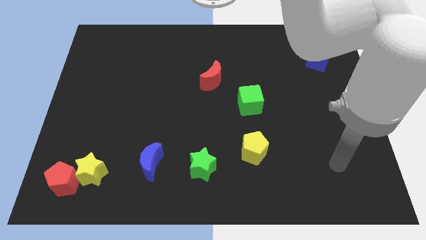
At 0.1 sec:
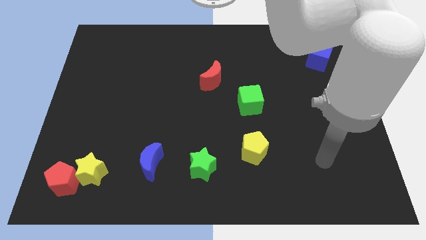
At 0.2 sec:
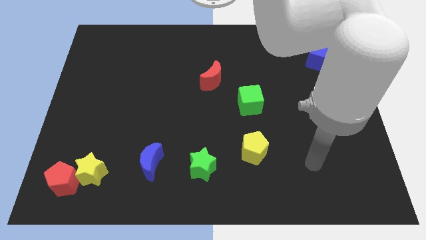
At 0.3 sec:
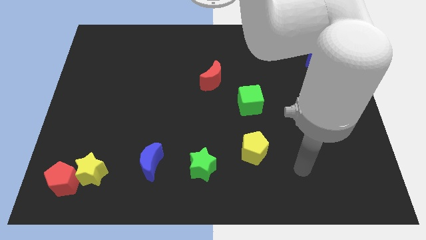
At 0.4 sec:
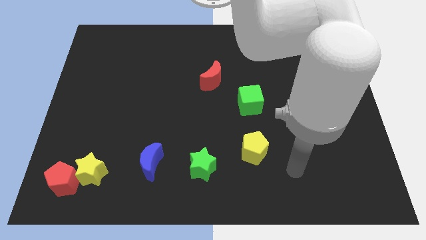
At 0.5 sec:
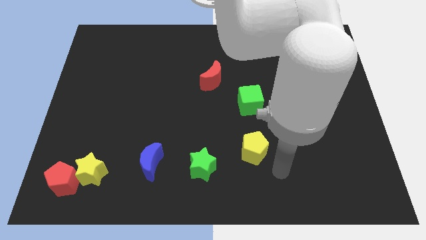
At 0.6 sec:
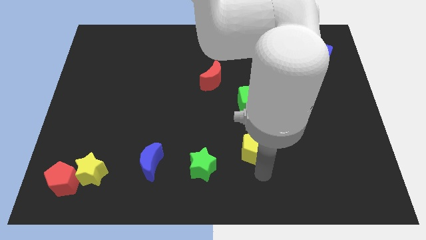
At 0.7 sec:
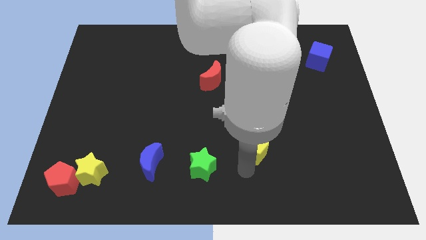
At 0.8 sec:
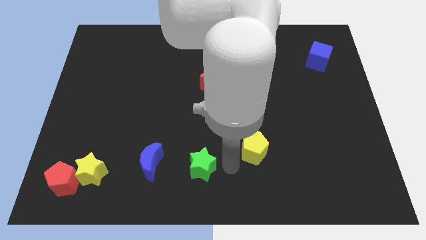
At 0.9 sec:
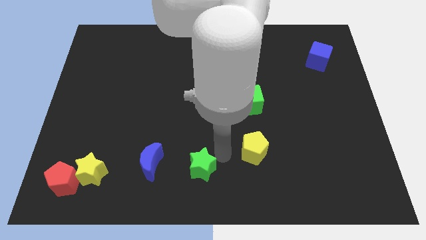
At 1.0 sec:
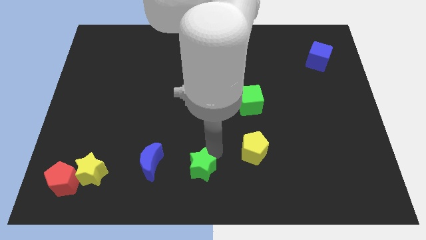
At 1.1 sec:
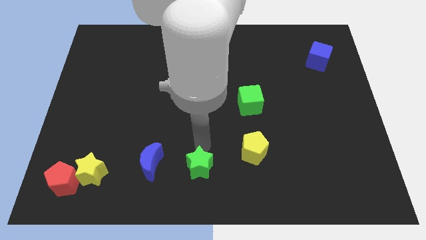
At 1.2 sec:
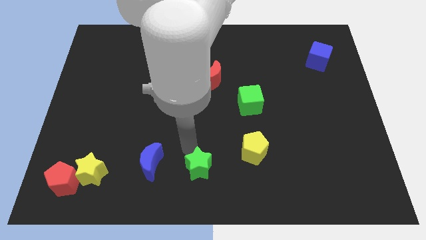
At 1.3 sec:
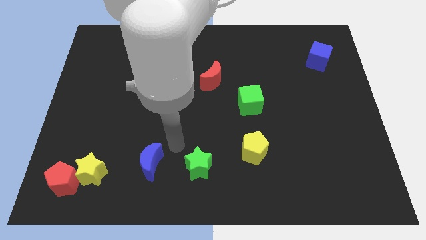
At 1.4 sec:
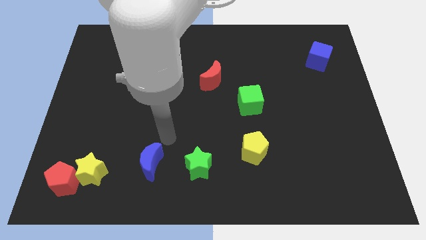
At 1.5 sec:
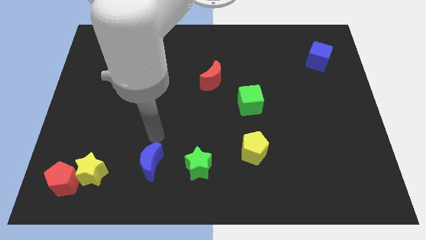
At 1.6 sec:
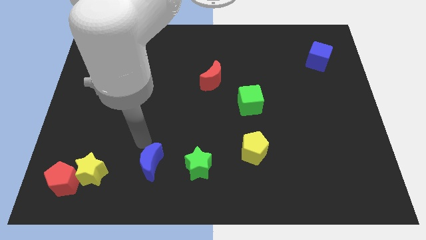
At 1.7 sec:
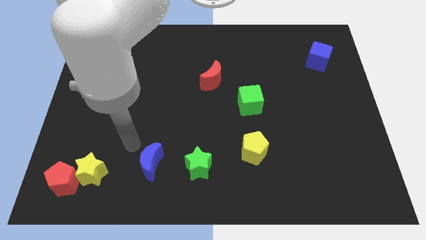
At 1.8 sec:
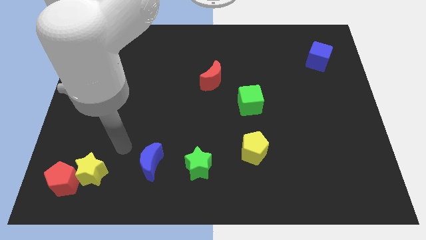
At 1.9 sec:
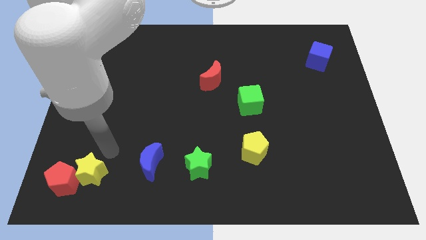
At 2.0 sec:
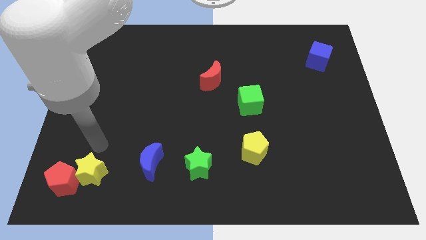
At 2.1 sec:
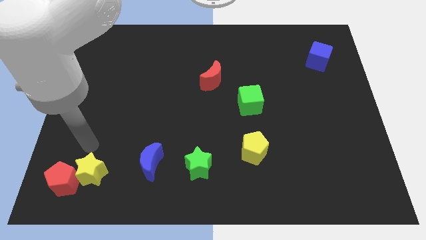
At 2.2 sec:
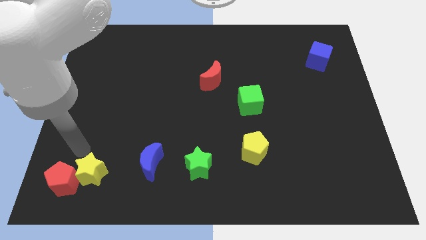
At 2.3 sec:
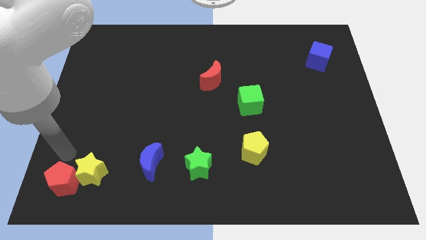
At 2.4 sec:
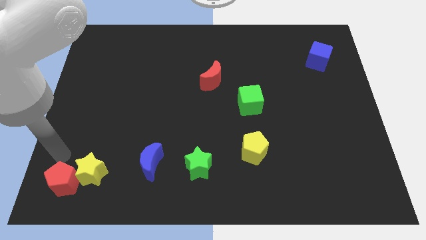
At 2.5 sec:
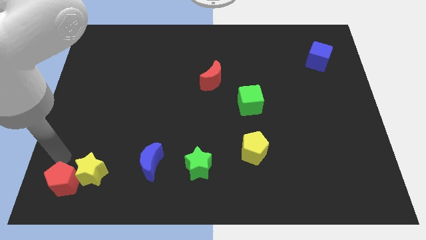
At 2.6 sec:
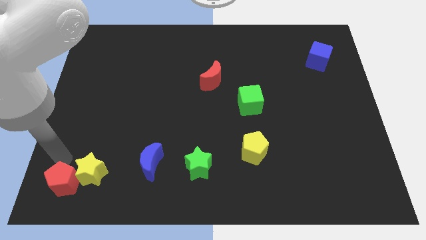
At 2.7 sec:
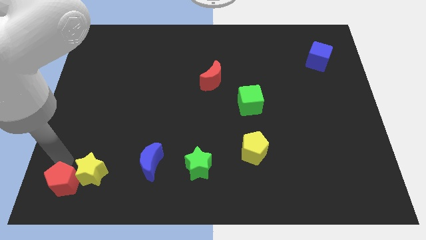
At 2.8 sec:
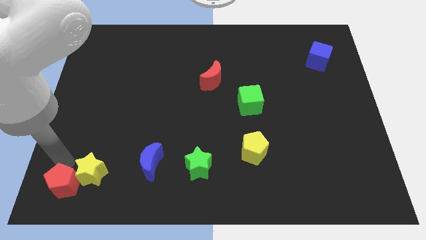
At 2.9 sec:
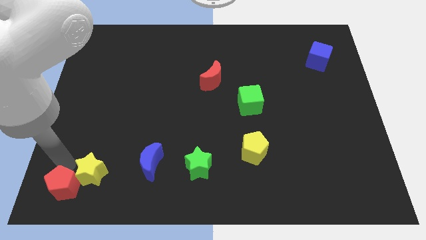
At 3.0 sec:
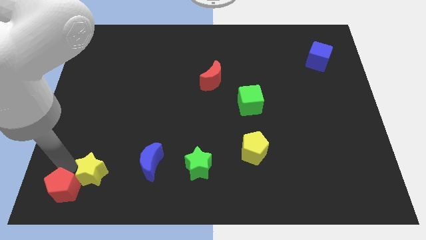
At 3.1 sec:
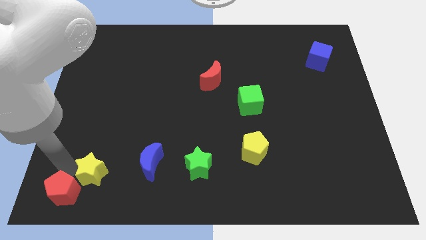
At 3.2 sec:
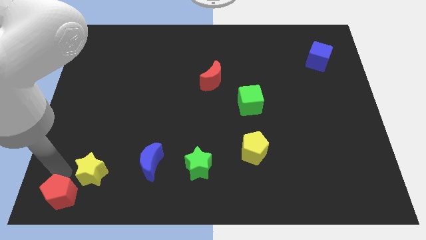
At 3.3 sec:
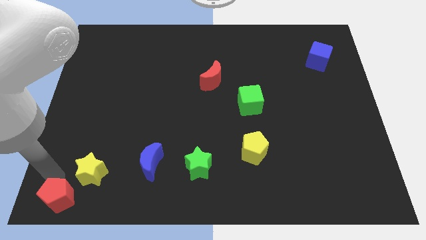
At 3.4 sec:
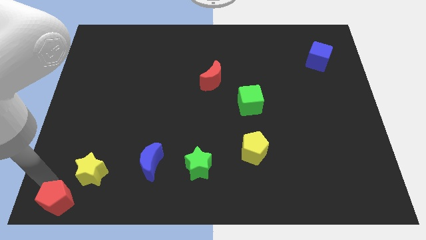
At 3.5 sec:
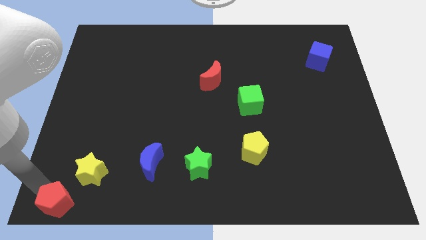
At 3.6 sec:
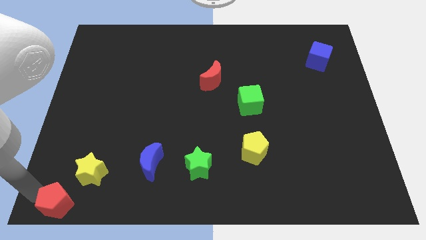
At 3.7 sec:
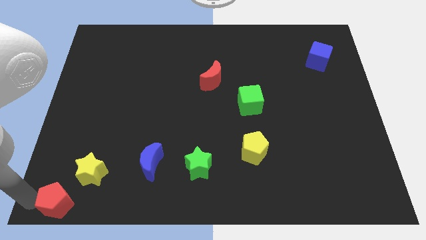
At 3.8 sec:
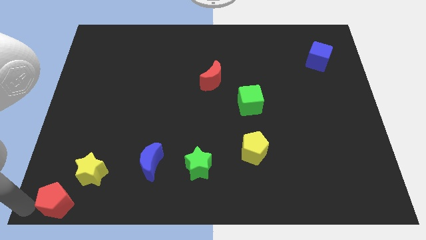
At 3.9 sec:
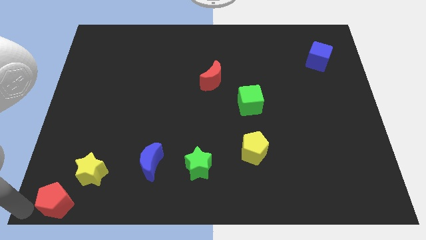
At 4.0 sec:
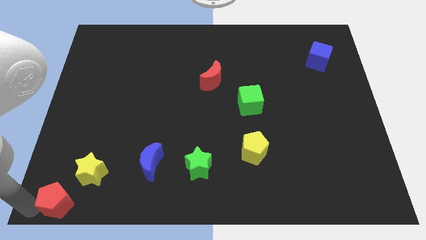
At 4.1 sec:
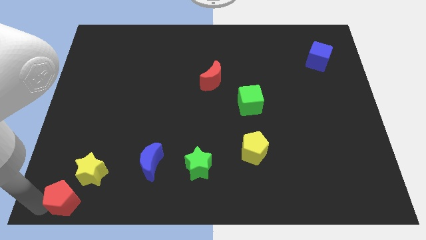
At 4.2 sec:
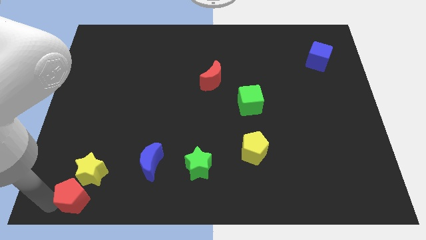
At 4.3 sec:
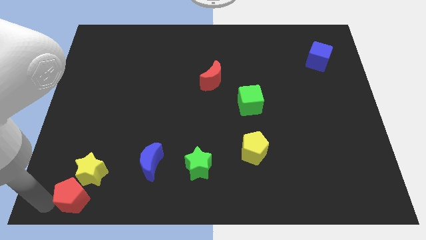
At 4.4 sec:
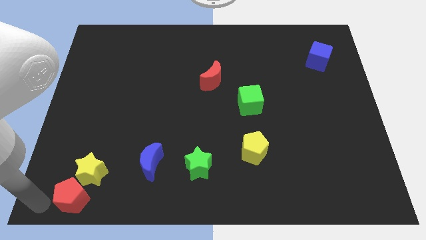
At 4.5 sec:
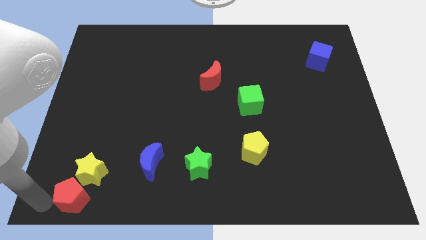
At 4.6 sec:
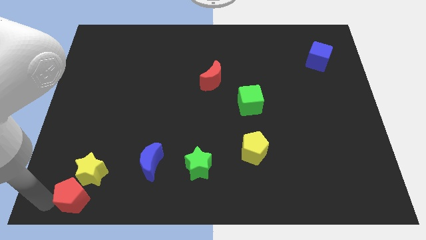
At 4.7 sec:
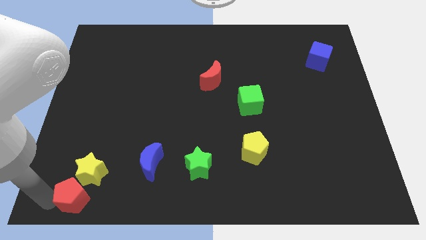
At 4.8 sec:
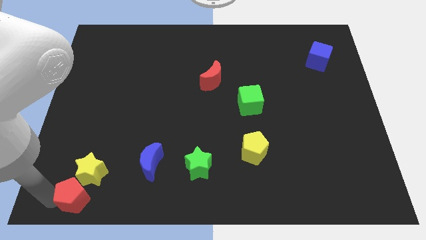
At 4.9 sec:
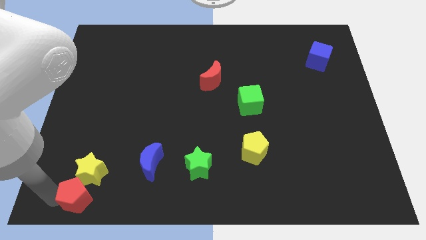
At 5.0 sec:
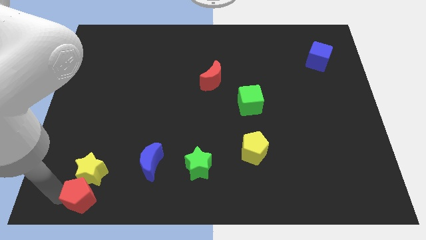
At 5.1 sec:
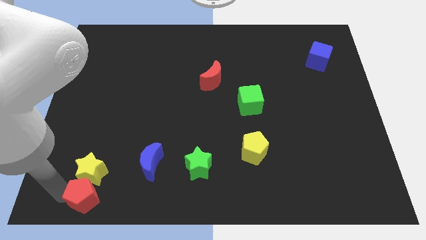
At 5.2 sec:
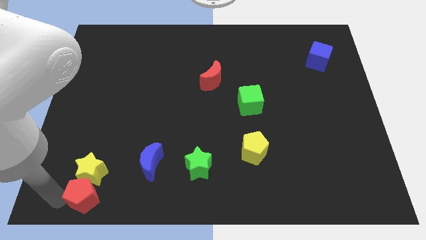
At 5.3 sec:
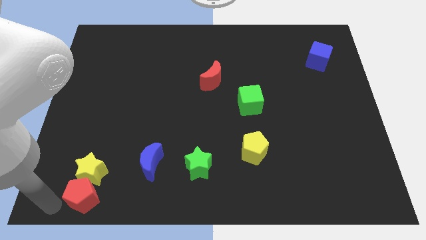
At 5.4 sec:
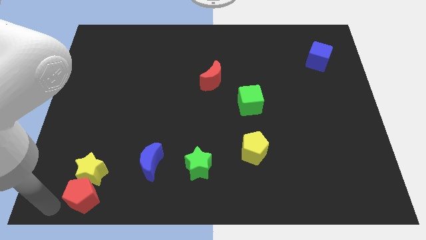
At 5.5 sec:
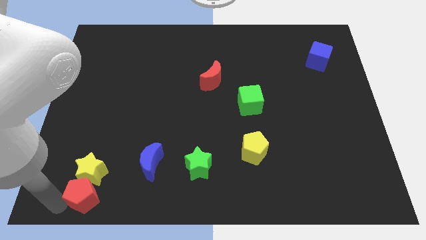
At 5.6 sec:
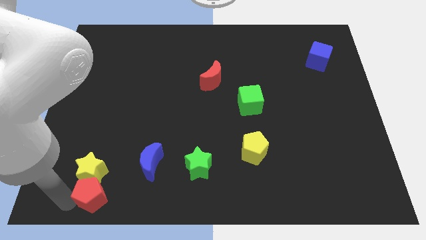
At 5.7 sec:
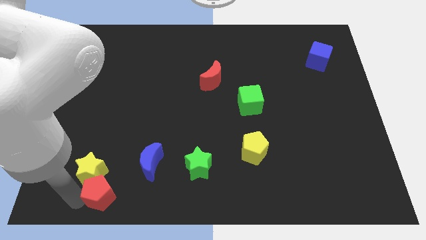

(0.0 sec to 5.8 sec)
push the red pentagon a little bit right

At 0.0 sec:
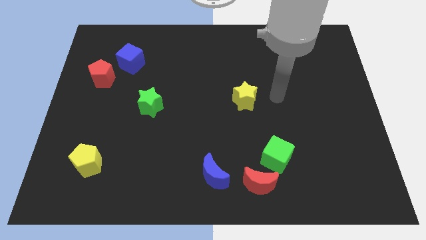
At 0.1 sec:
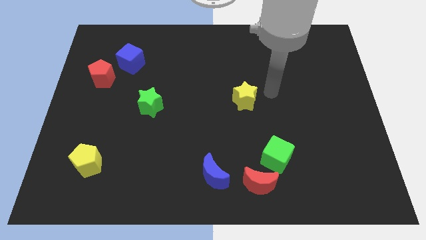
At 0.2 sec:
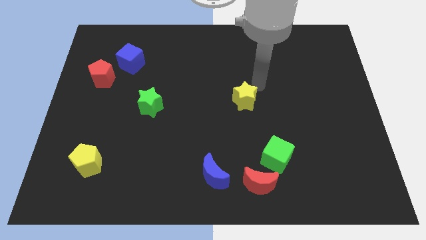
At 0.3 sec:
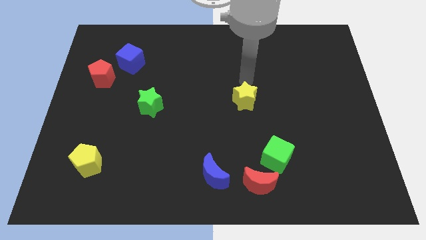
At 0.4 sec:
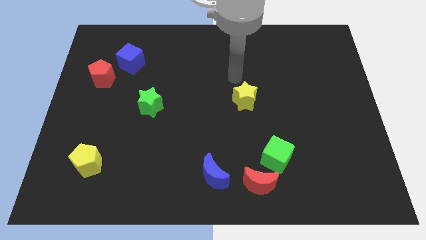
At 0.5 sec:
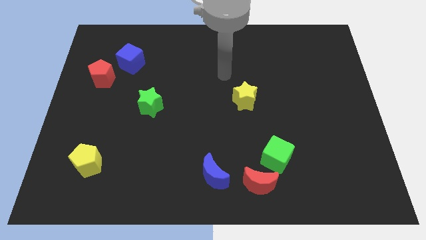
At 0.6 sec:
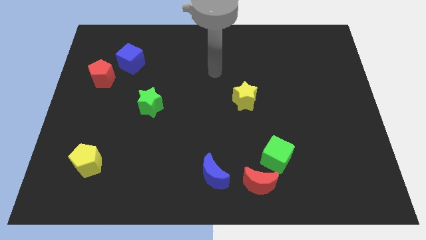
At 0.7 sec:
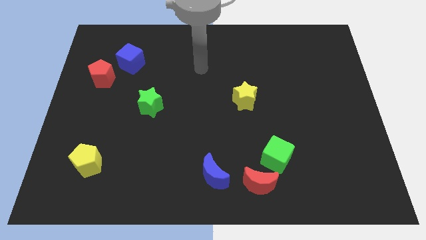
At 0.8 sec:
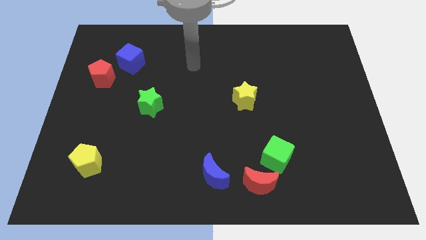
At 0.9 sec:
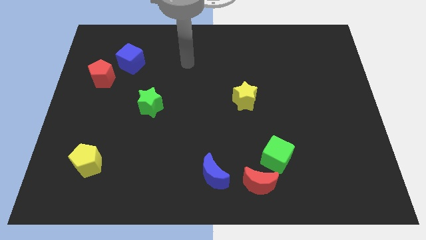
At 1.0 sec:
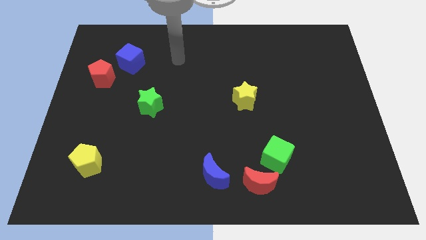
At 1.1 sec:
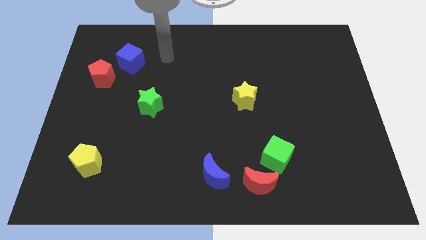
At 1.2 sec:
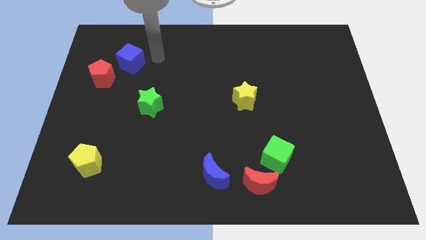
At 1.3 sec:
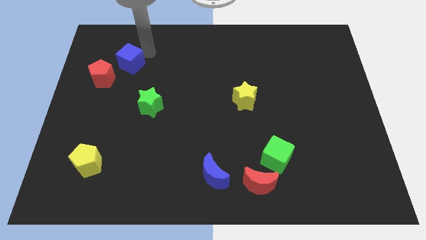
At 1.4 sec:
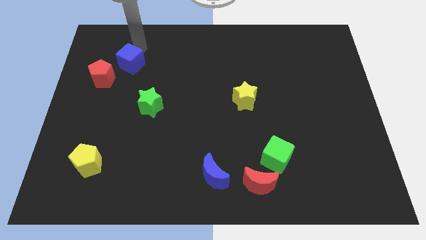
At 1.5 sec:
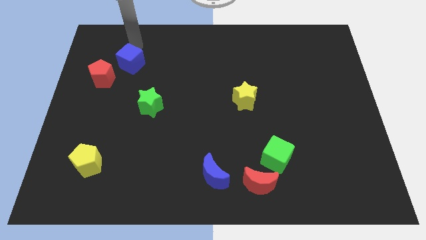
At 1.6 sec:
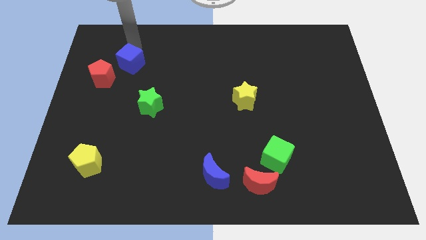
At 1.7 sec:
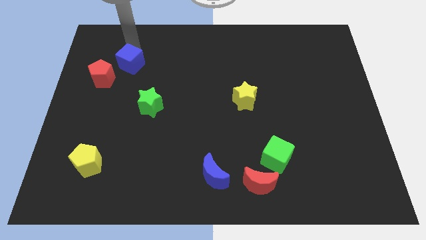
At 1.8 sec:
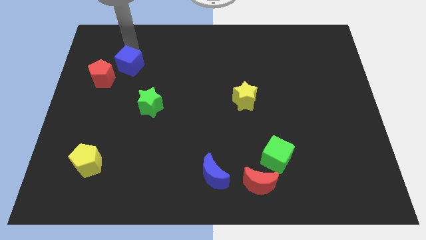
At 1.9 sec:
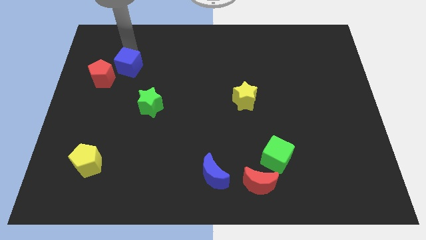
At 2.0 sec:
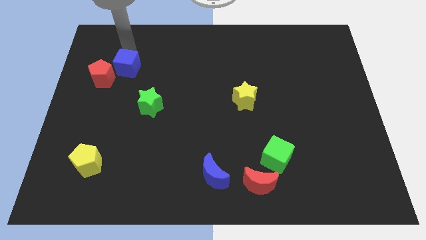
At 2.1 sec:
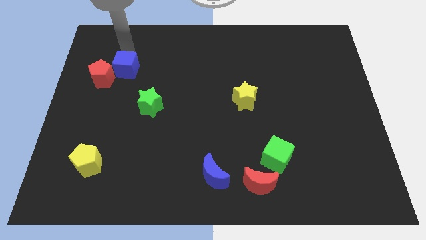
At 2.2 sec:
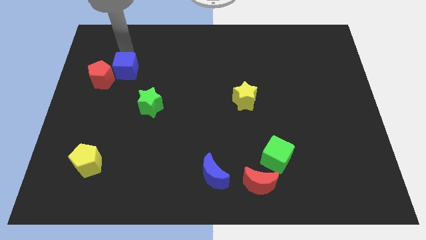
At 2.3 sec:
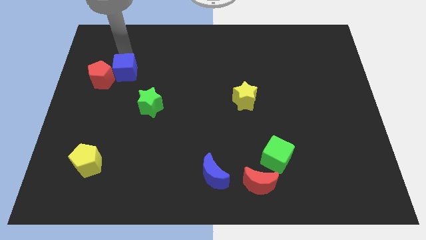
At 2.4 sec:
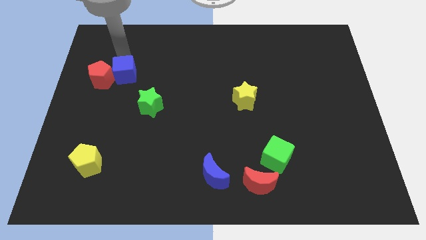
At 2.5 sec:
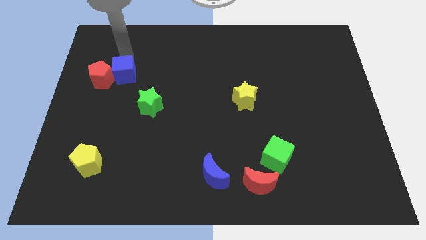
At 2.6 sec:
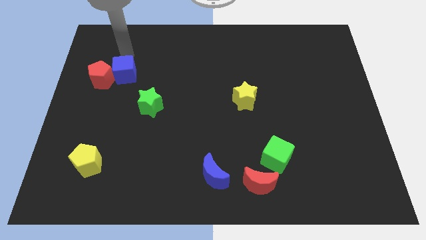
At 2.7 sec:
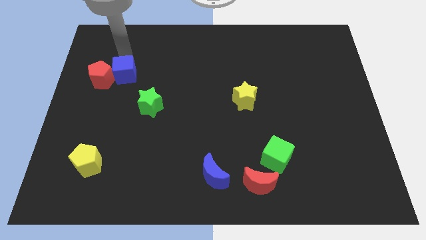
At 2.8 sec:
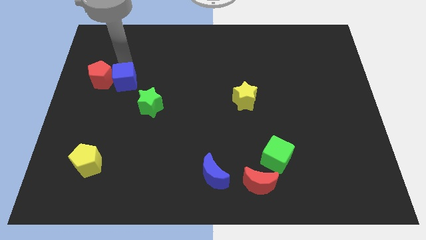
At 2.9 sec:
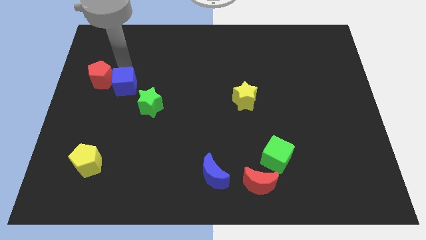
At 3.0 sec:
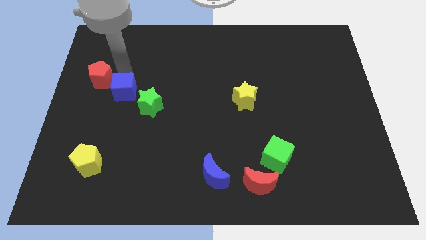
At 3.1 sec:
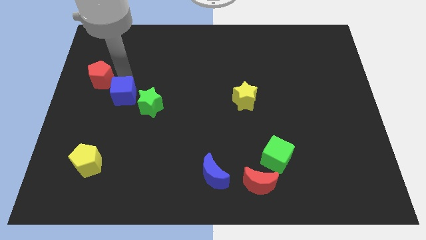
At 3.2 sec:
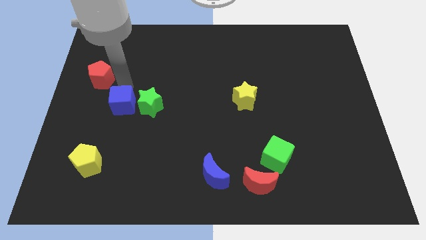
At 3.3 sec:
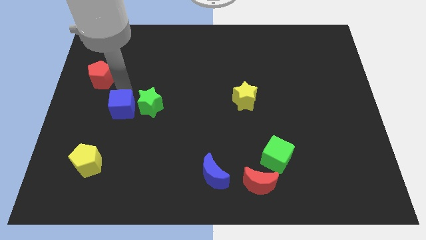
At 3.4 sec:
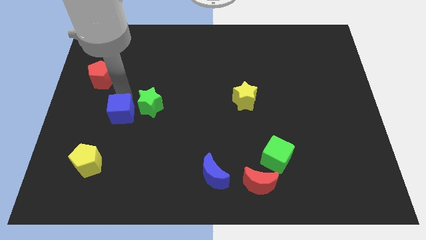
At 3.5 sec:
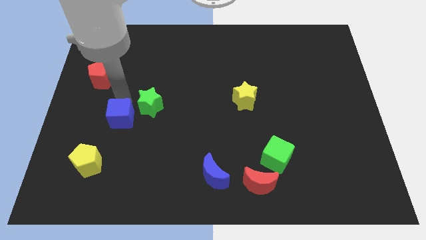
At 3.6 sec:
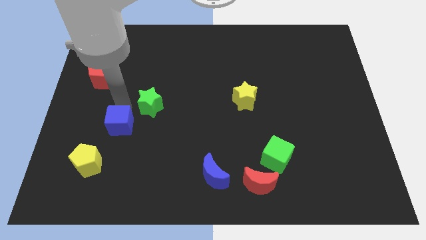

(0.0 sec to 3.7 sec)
push the blue cube downwards
